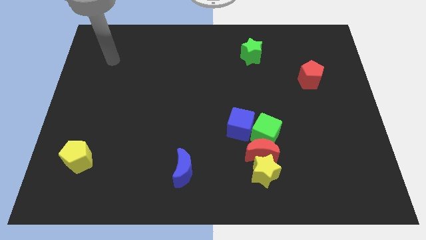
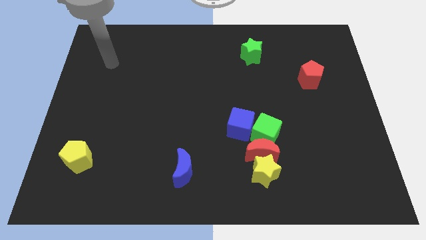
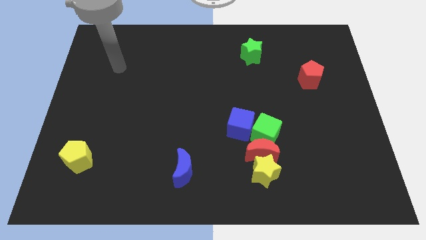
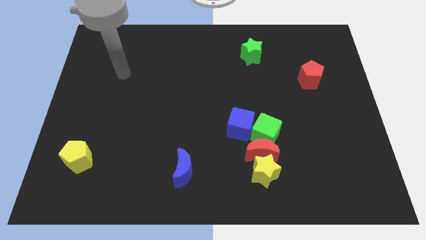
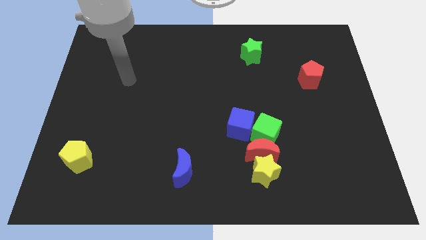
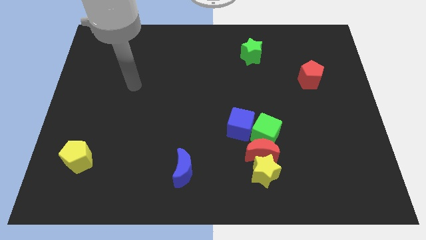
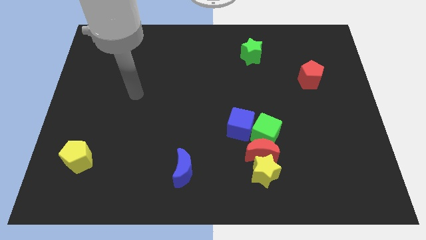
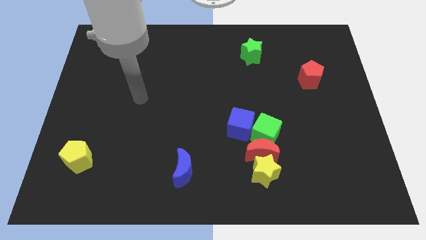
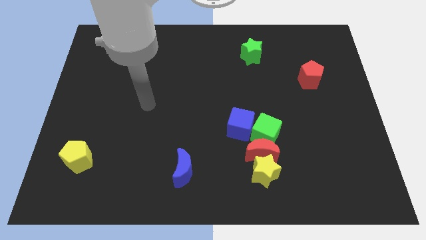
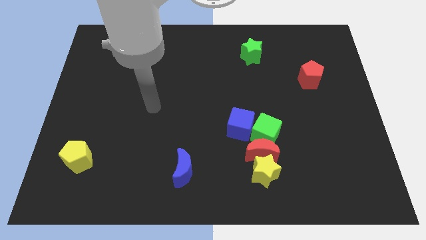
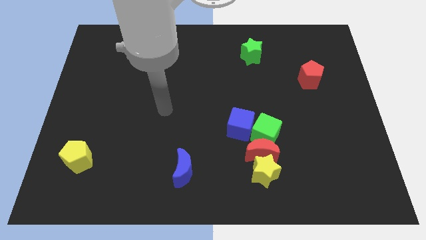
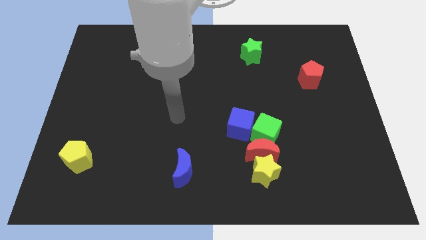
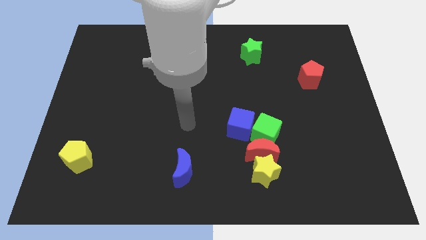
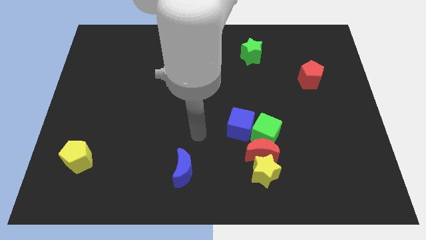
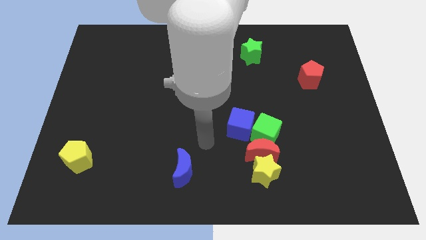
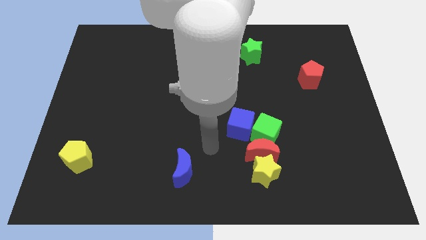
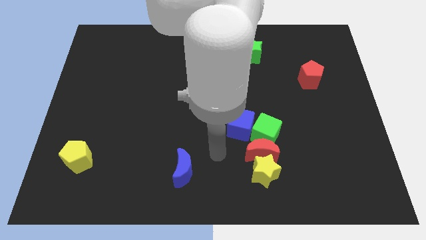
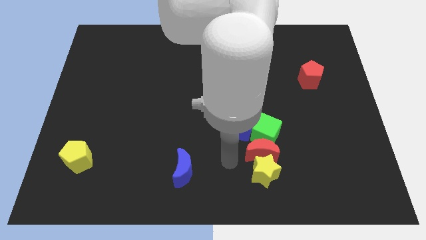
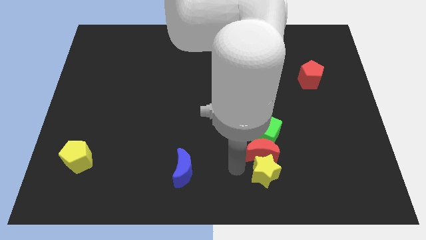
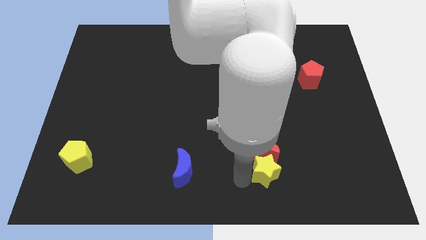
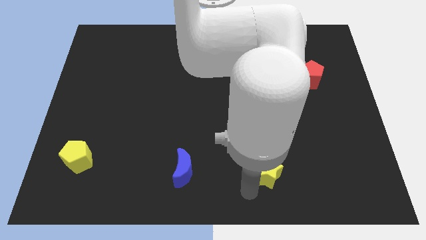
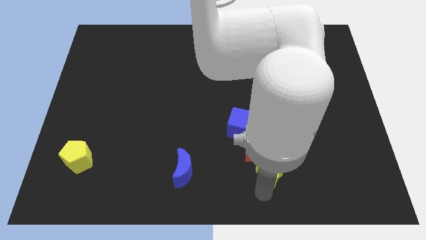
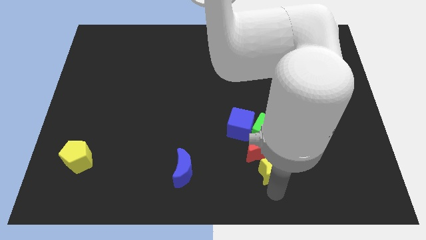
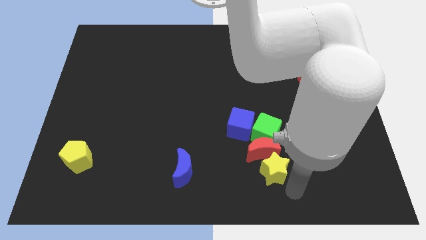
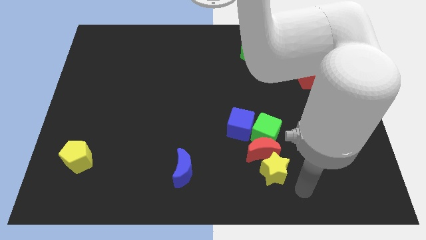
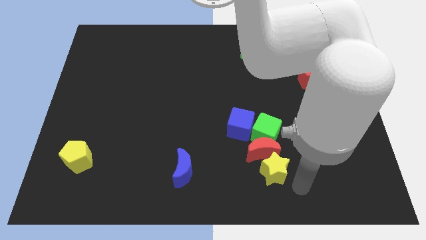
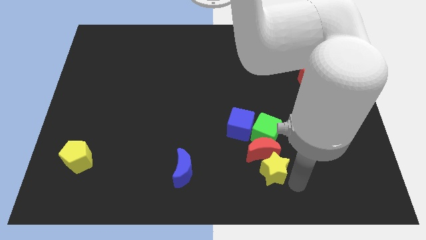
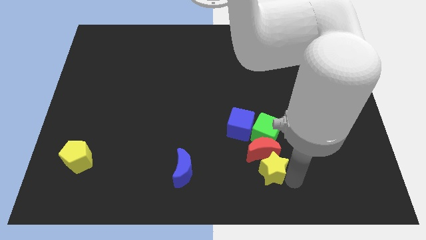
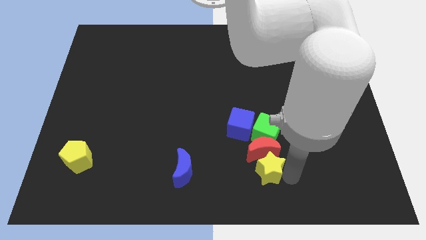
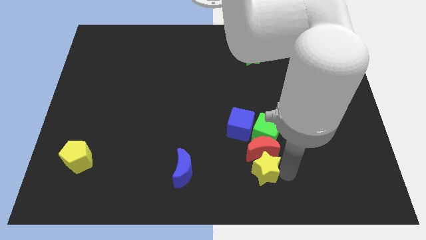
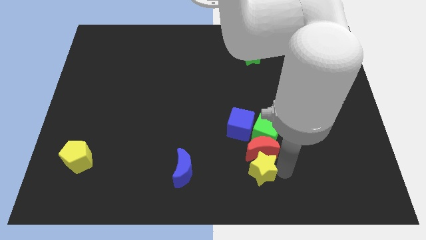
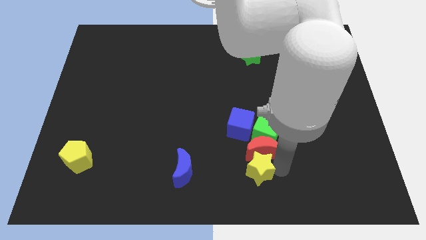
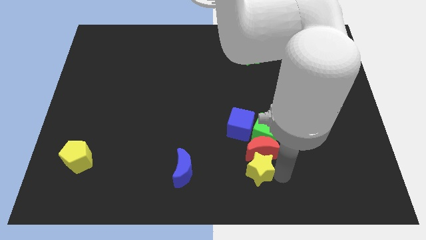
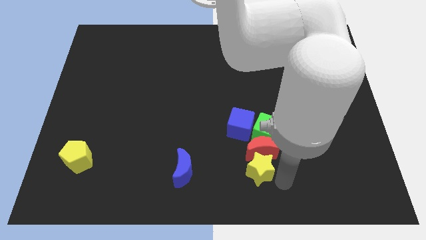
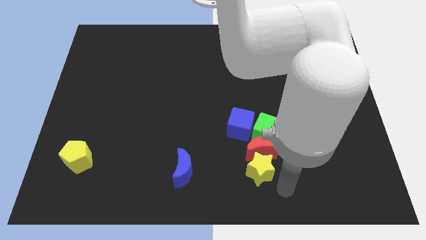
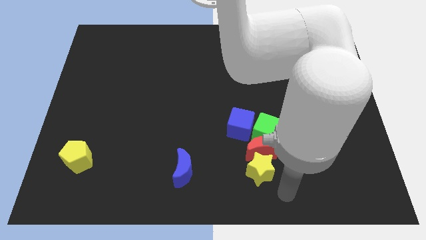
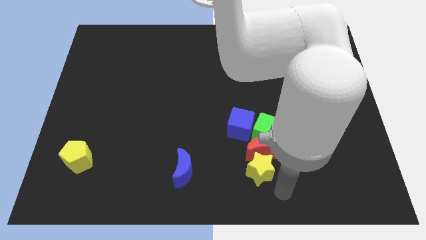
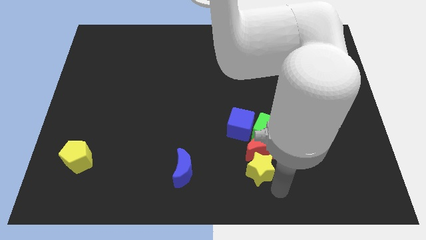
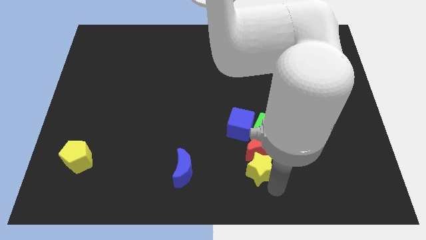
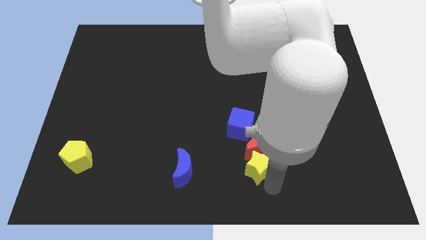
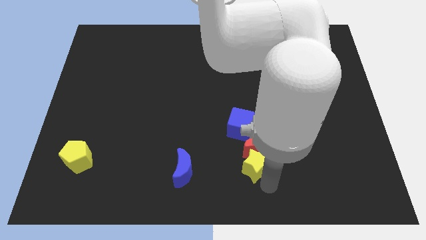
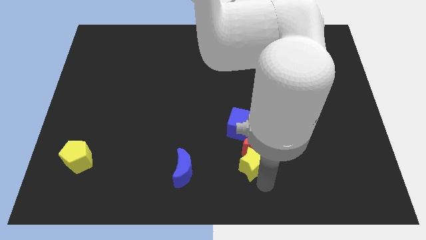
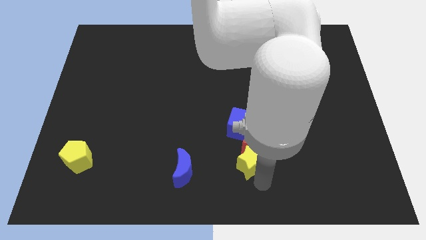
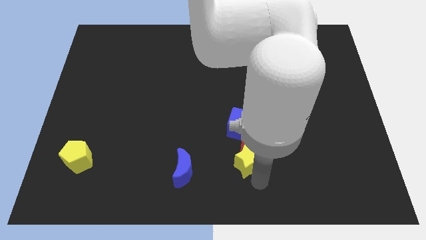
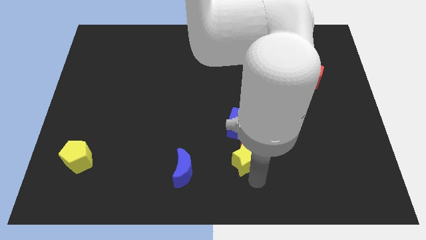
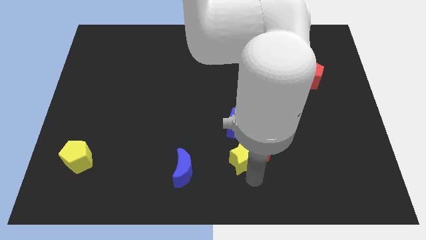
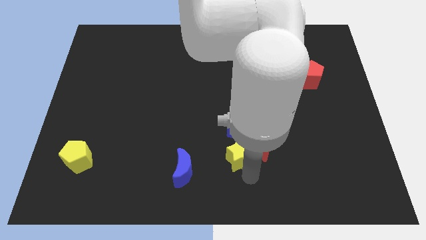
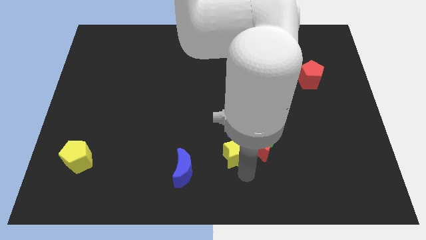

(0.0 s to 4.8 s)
slide the yellow star slightly upwards and to the left diagonally

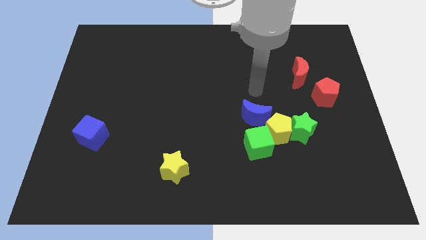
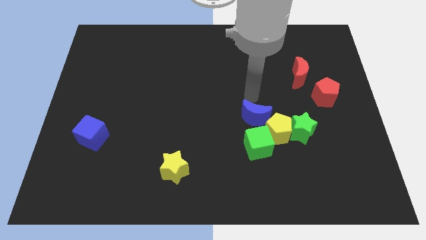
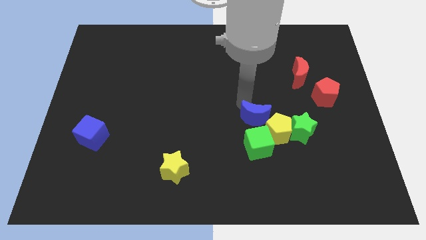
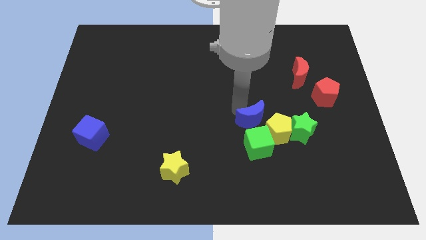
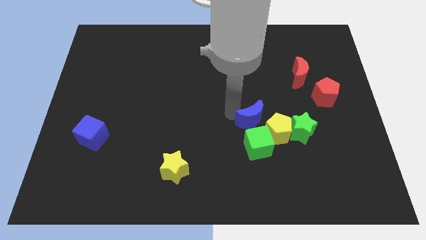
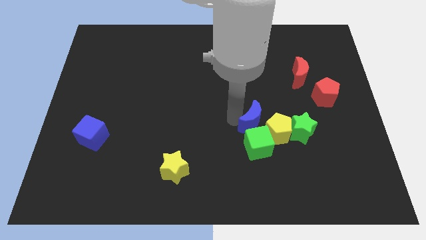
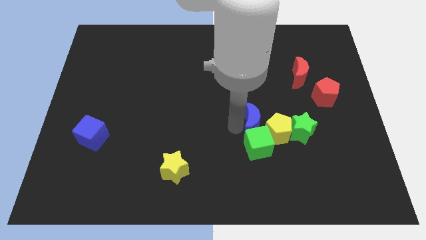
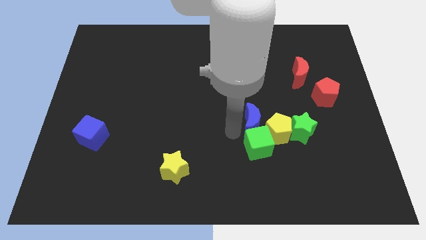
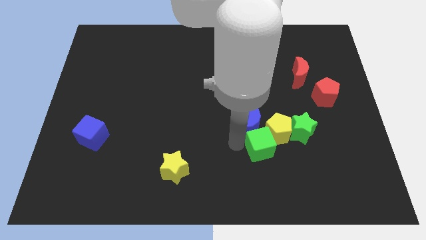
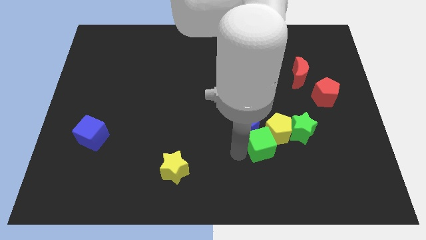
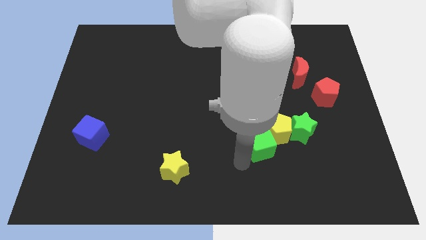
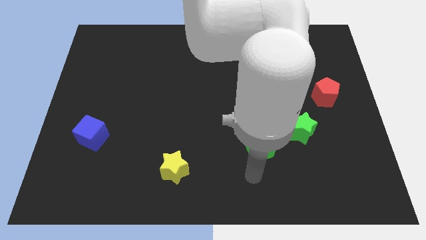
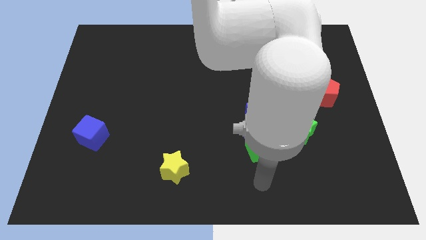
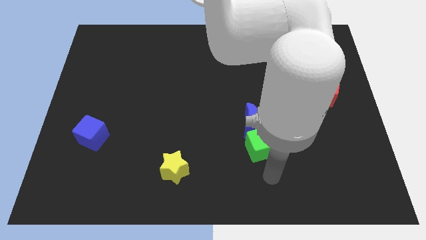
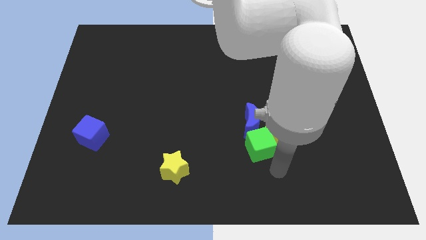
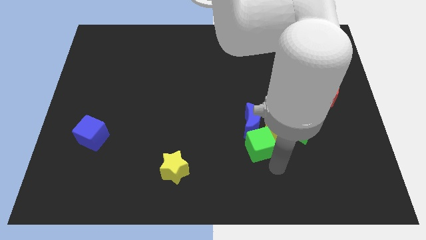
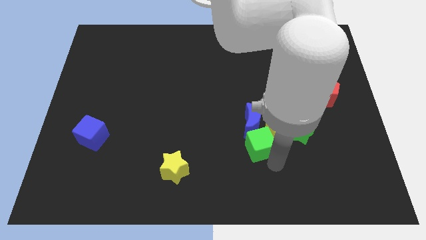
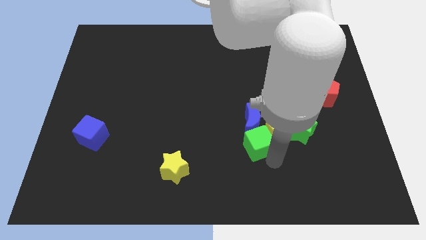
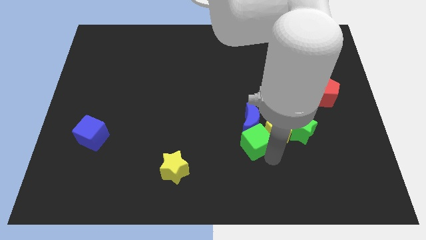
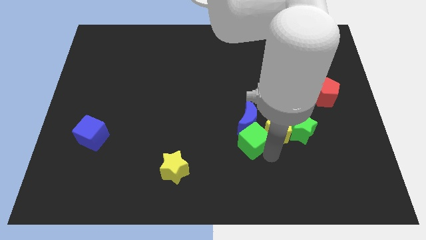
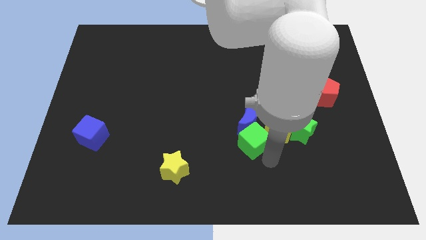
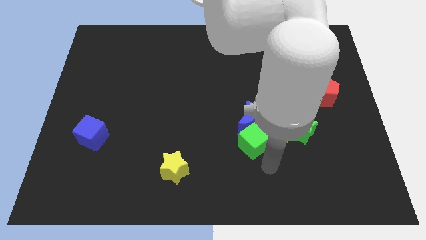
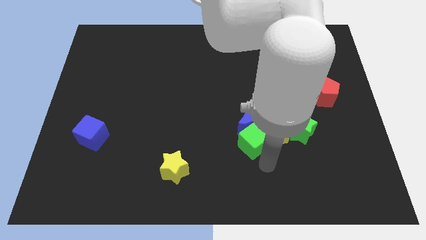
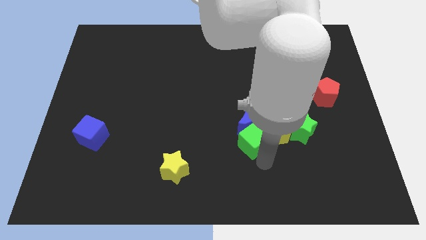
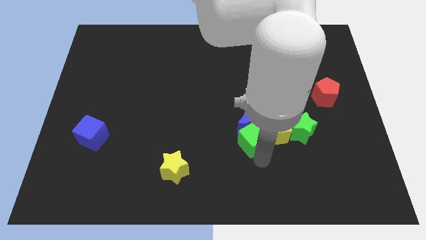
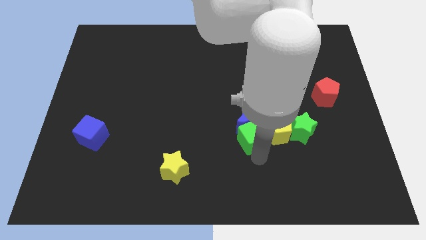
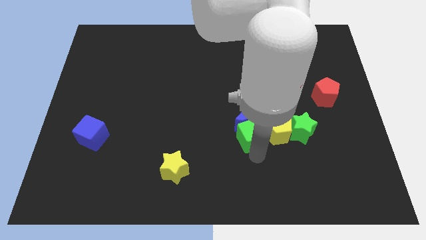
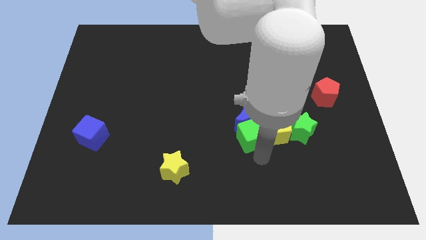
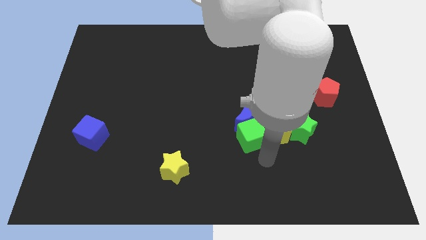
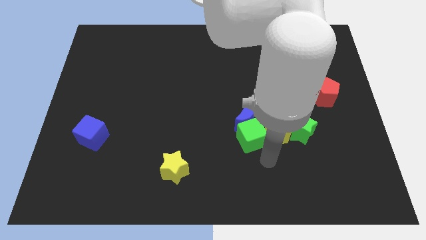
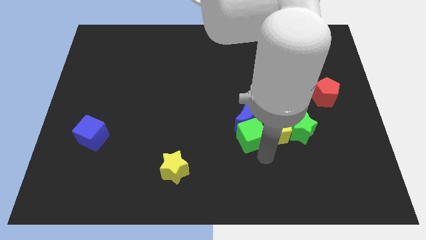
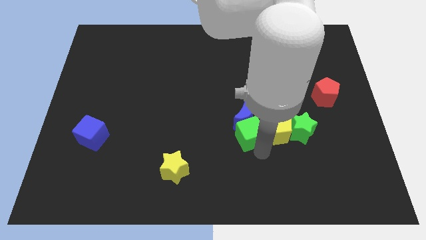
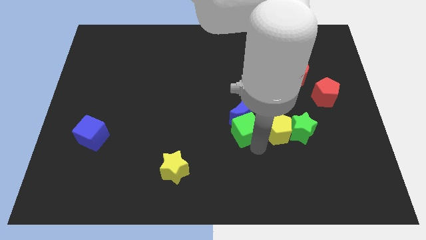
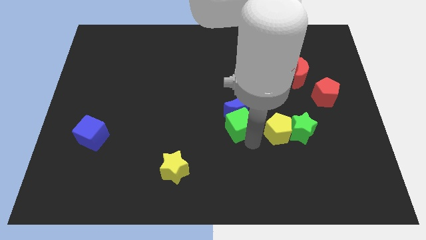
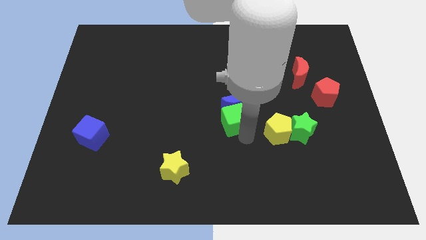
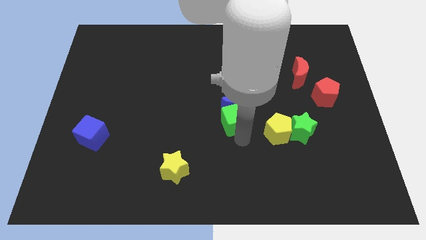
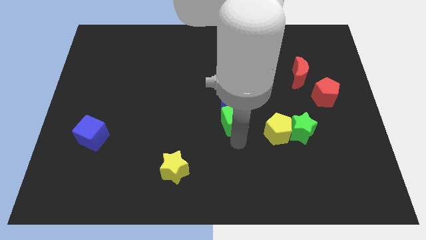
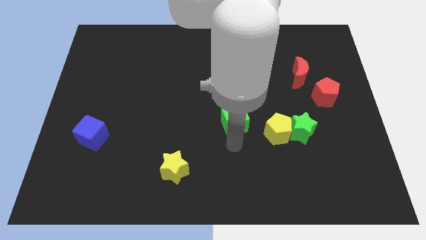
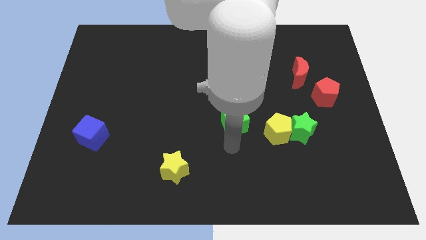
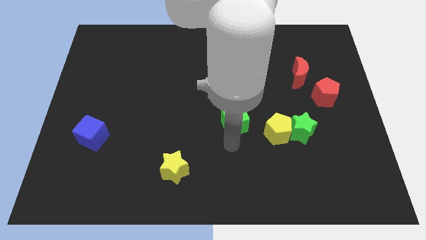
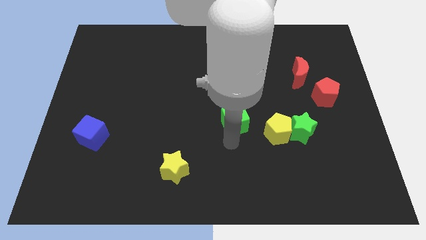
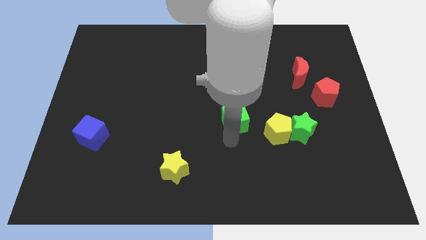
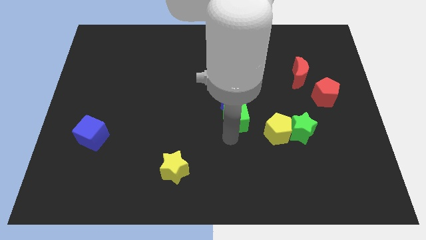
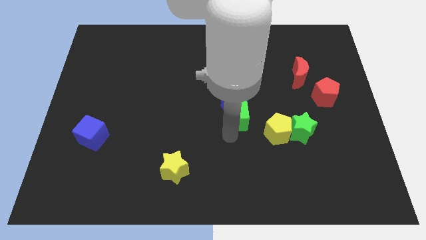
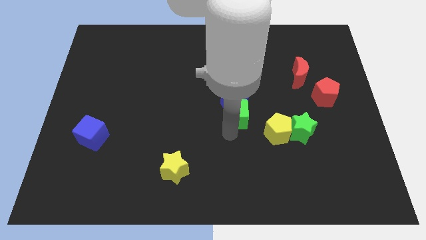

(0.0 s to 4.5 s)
slightly push the green cube up
